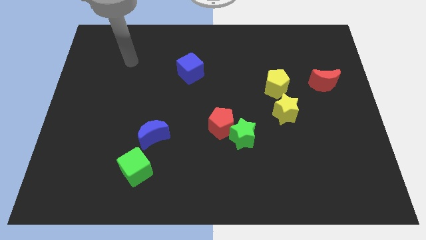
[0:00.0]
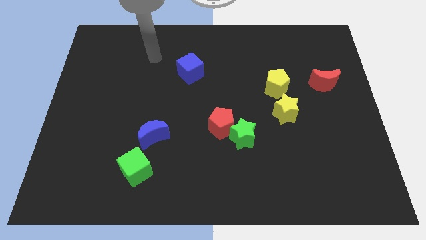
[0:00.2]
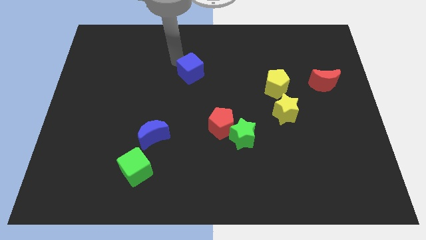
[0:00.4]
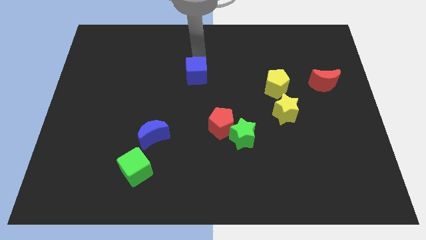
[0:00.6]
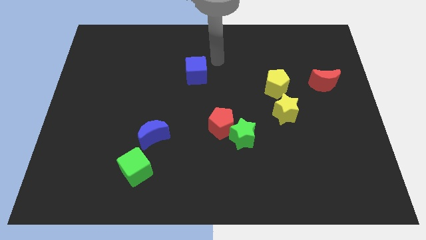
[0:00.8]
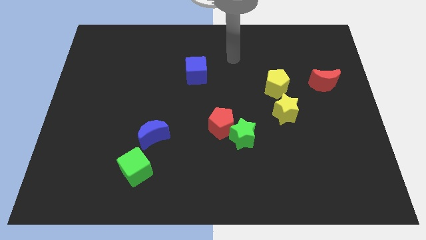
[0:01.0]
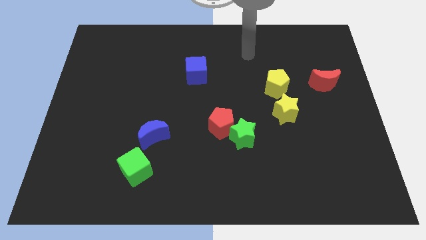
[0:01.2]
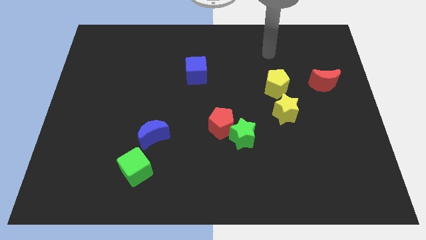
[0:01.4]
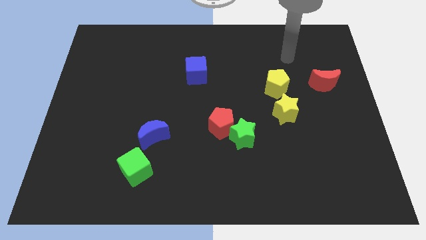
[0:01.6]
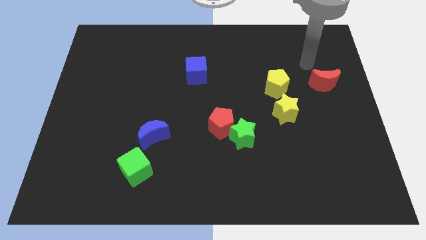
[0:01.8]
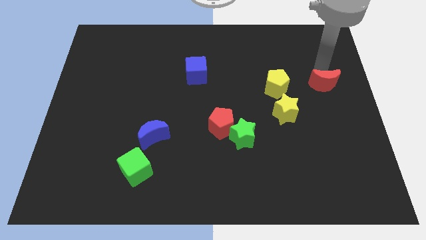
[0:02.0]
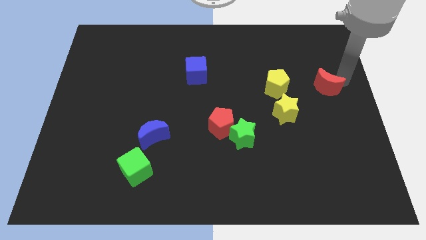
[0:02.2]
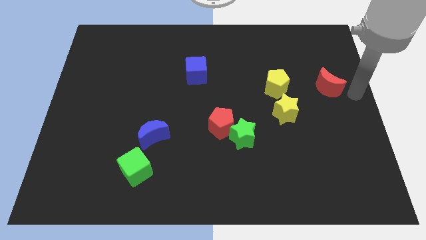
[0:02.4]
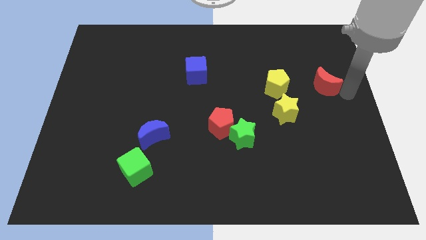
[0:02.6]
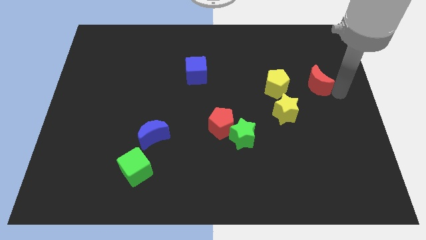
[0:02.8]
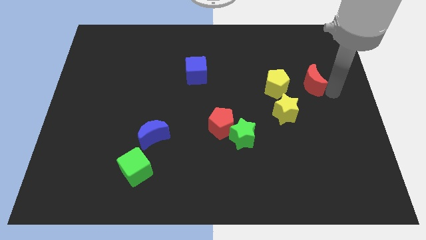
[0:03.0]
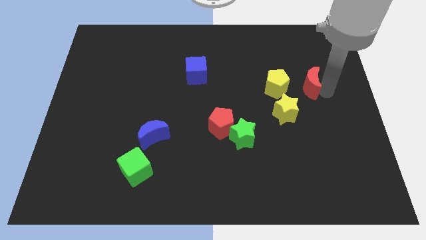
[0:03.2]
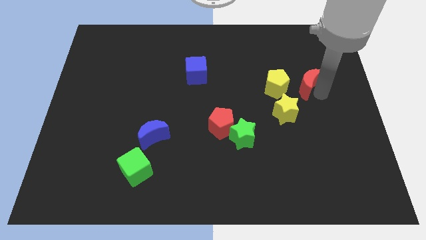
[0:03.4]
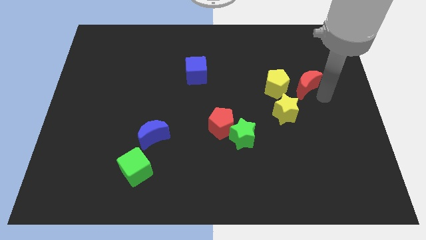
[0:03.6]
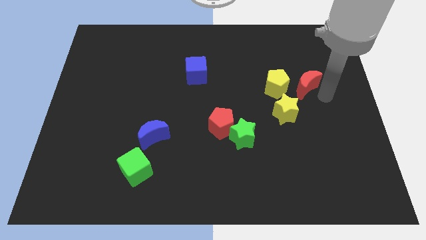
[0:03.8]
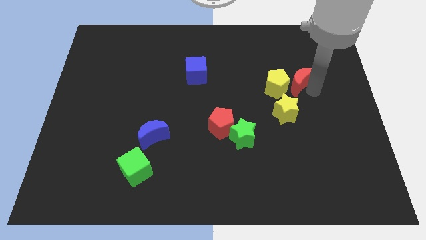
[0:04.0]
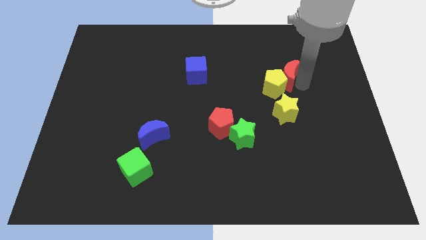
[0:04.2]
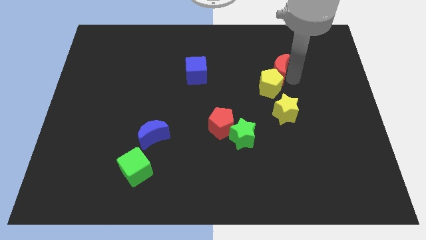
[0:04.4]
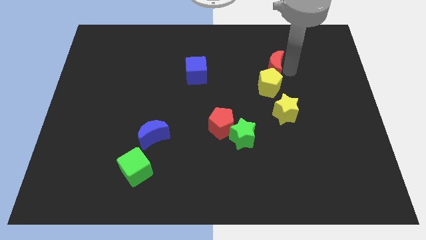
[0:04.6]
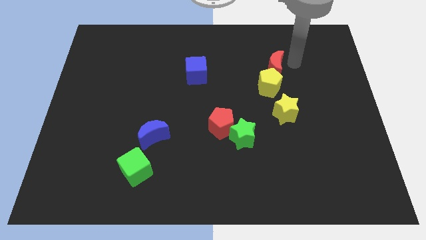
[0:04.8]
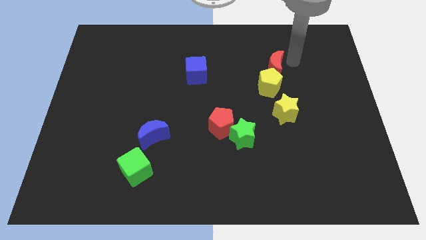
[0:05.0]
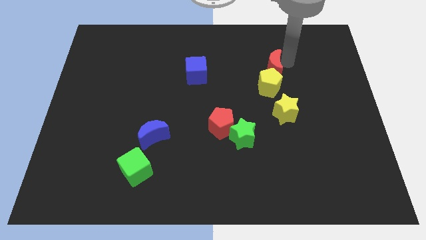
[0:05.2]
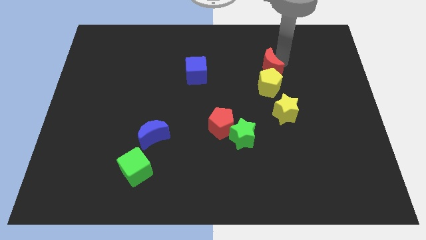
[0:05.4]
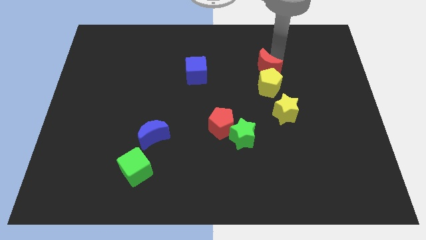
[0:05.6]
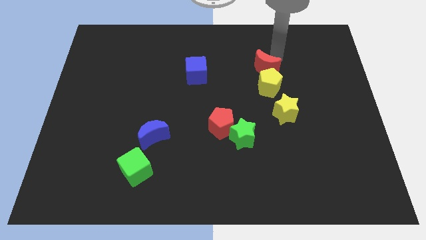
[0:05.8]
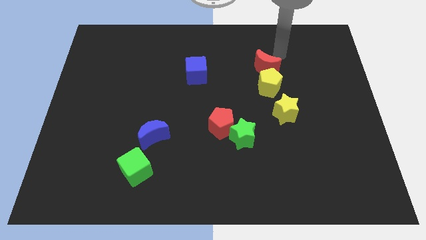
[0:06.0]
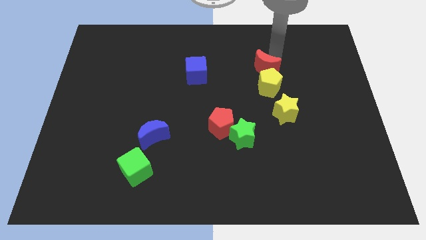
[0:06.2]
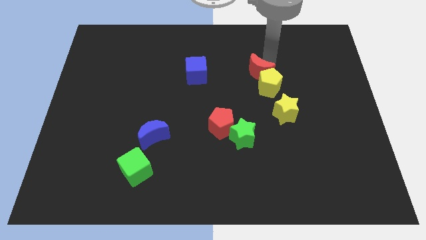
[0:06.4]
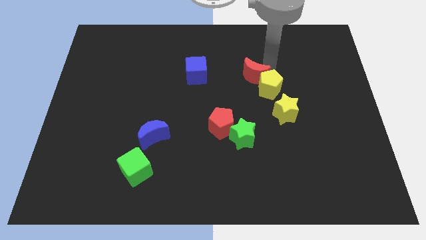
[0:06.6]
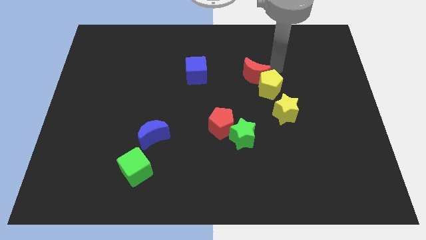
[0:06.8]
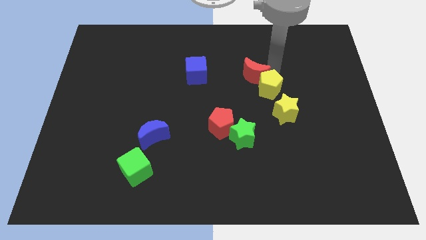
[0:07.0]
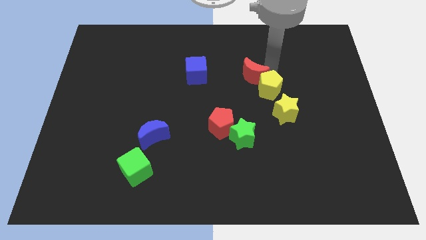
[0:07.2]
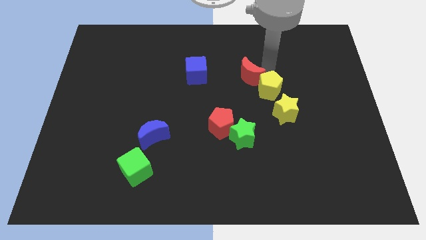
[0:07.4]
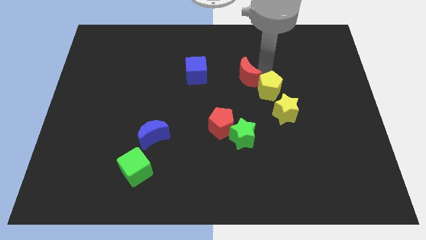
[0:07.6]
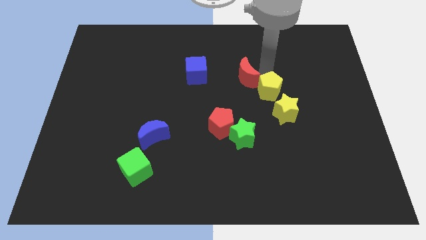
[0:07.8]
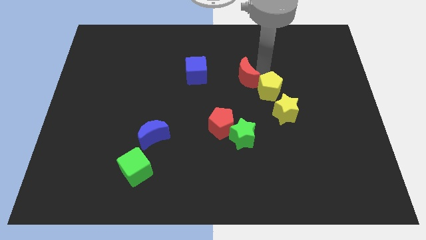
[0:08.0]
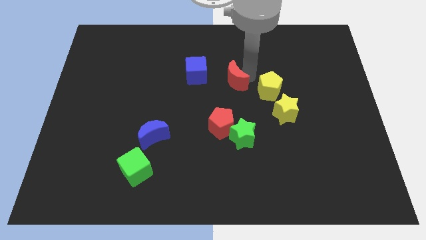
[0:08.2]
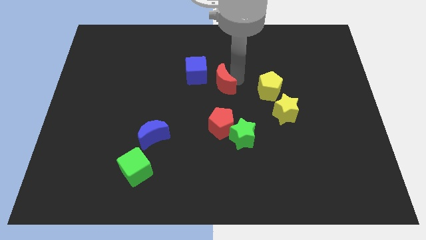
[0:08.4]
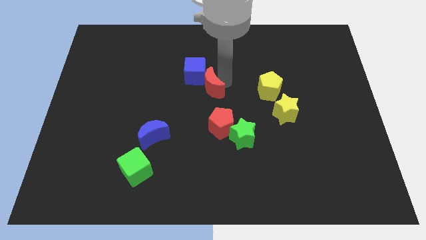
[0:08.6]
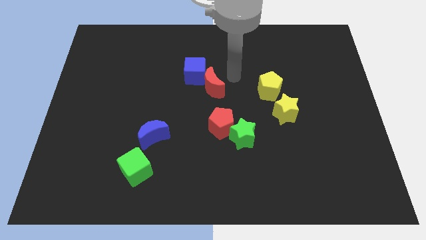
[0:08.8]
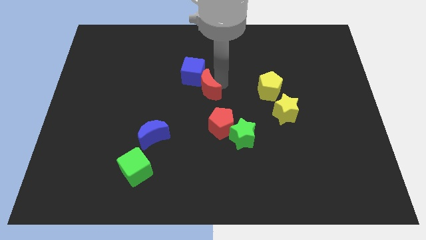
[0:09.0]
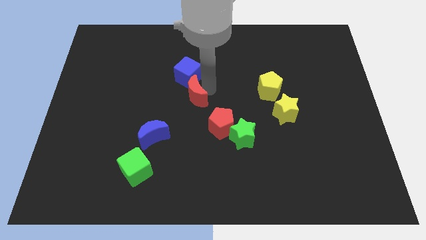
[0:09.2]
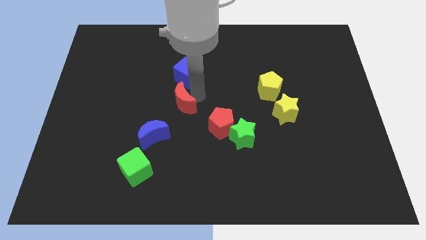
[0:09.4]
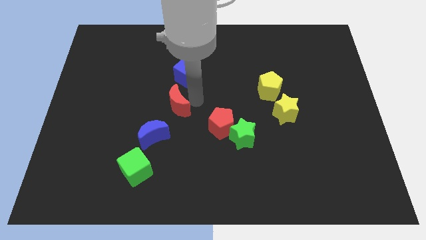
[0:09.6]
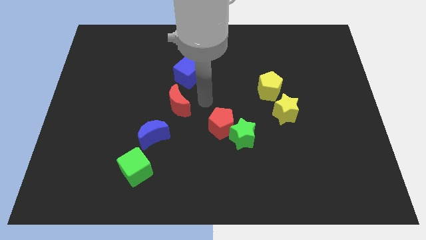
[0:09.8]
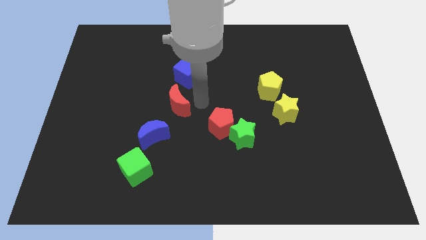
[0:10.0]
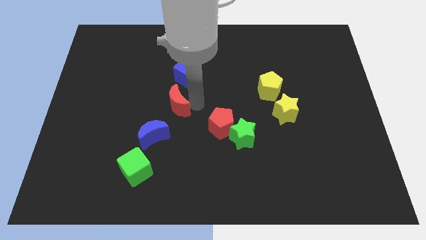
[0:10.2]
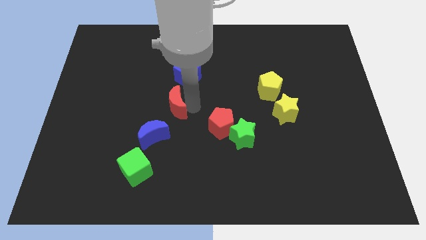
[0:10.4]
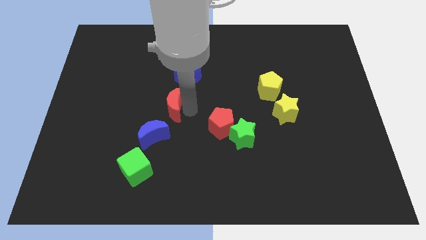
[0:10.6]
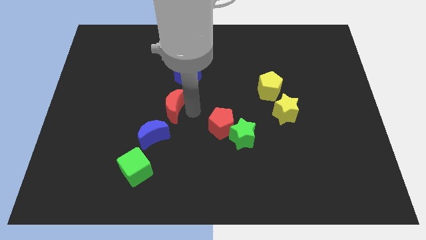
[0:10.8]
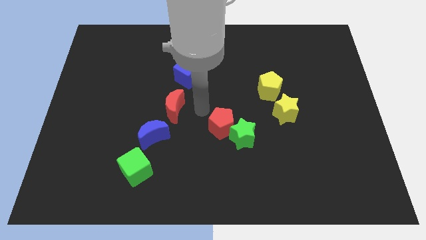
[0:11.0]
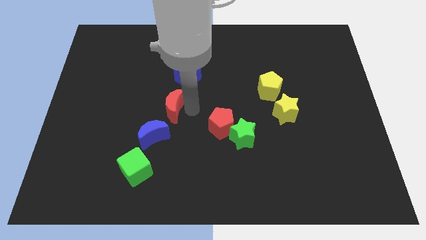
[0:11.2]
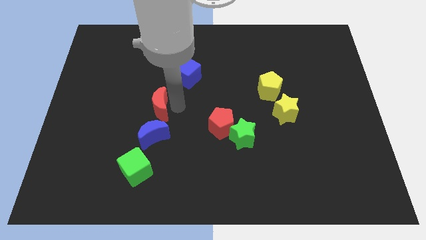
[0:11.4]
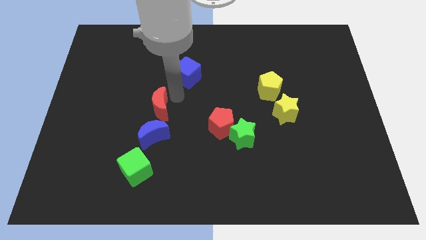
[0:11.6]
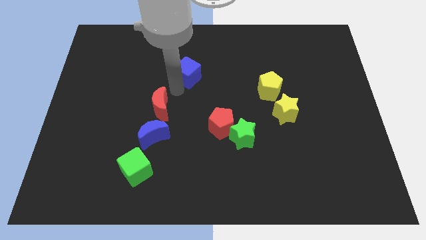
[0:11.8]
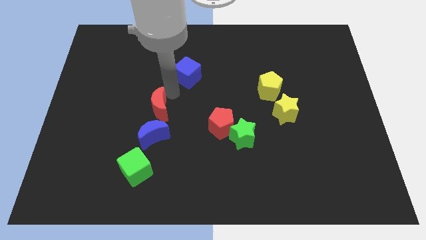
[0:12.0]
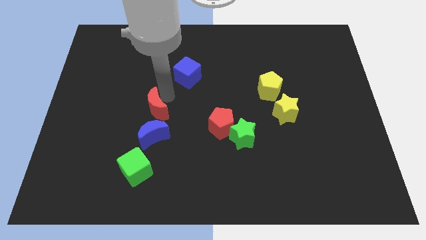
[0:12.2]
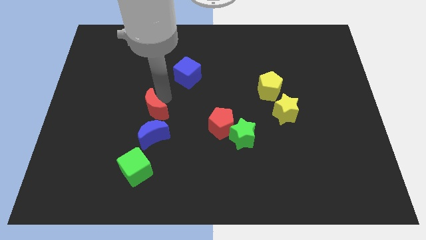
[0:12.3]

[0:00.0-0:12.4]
slide the red moon to the top of the green cube
